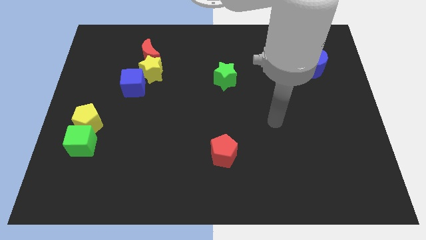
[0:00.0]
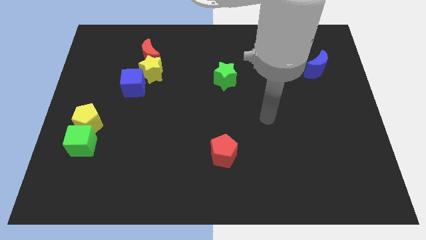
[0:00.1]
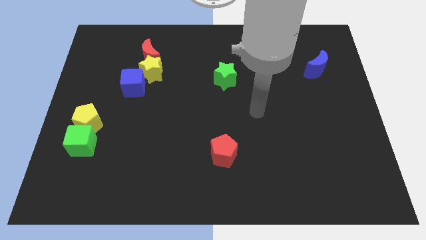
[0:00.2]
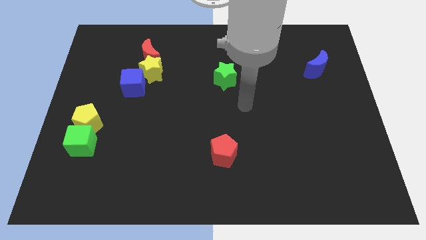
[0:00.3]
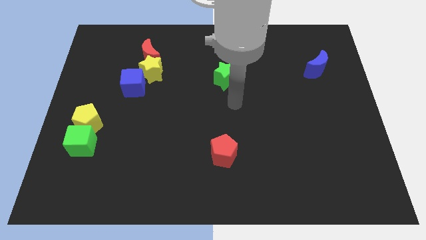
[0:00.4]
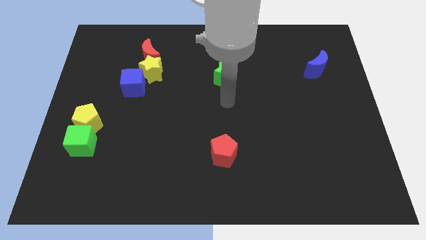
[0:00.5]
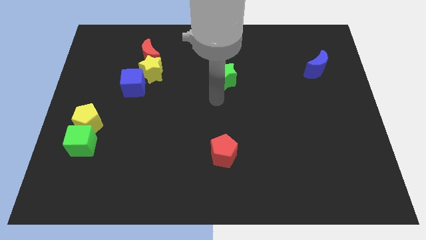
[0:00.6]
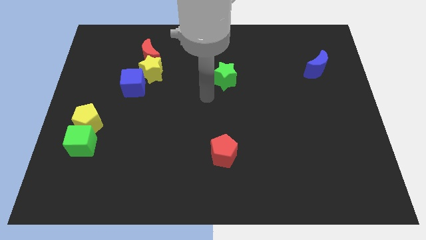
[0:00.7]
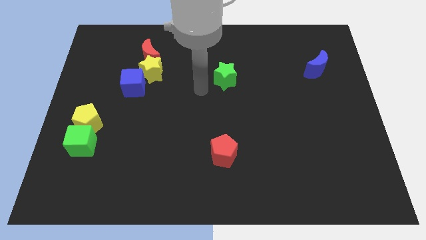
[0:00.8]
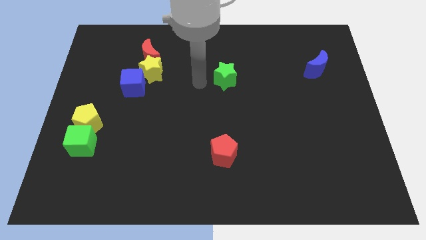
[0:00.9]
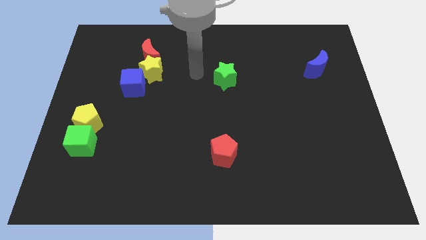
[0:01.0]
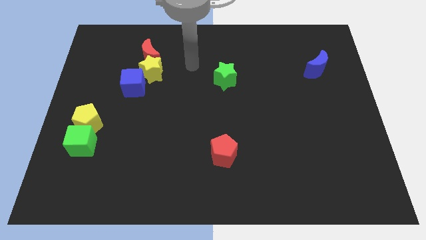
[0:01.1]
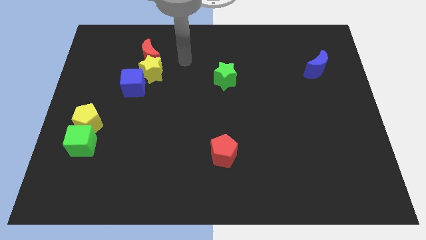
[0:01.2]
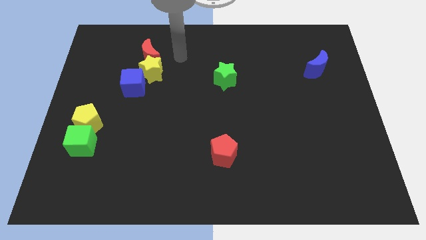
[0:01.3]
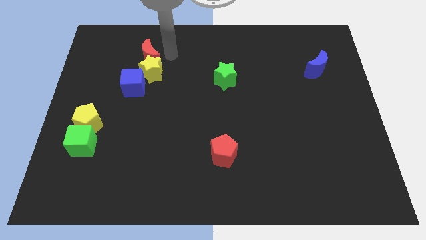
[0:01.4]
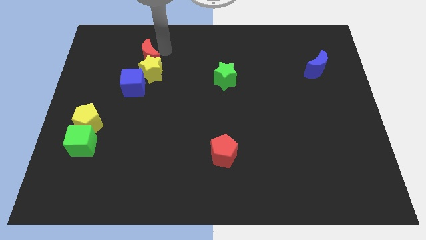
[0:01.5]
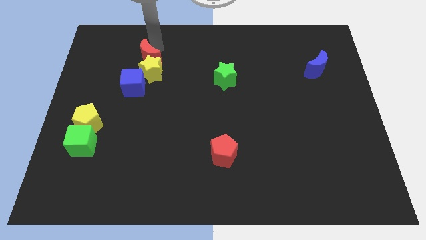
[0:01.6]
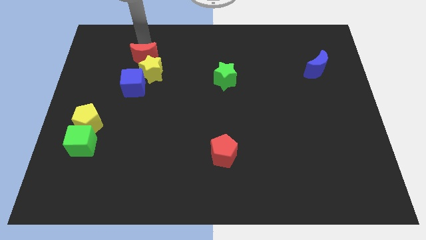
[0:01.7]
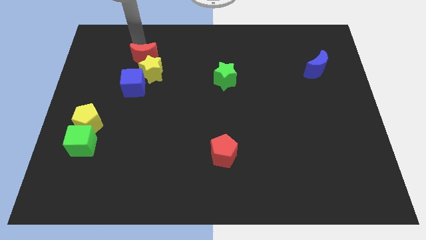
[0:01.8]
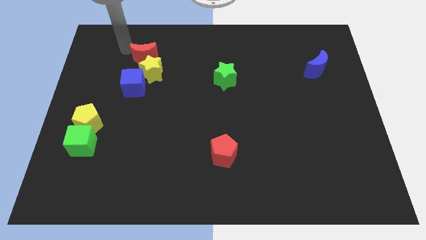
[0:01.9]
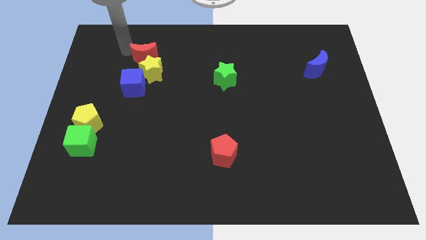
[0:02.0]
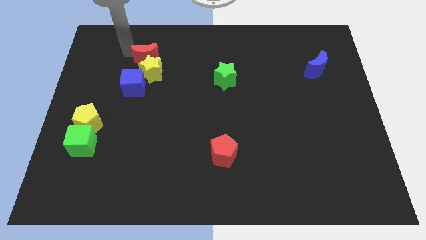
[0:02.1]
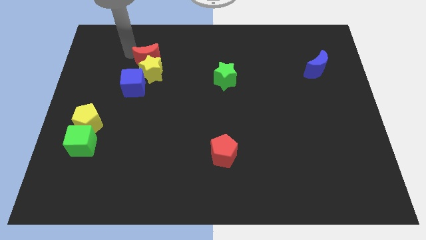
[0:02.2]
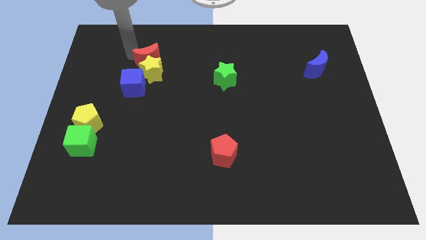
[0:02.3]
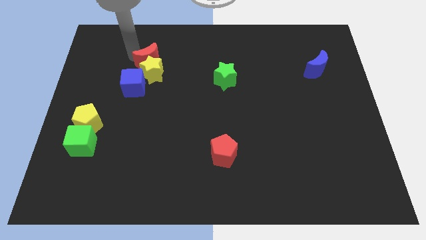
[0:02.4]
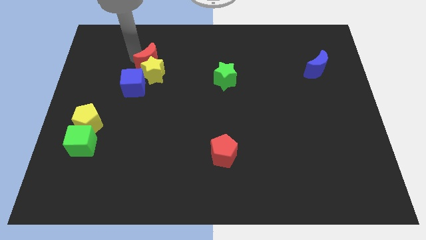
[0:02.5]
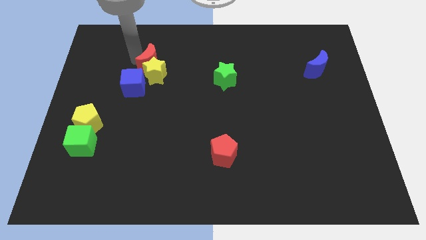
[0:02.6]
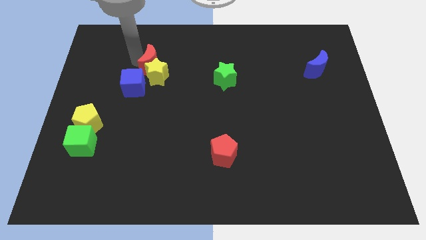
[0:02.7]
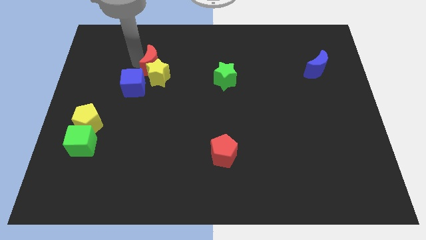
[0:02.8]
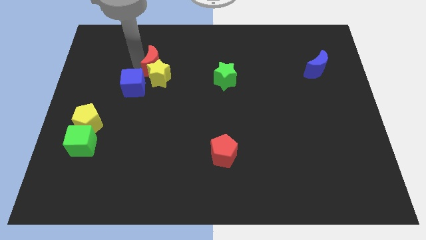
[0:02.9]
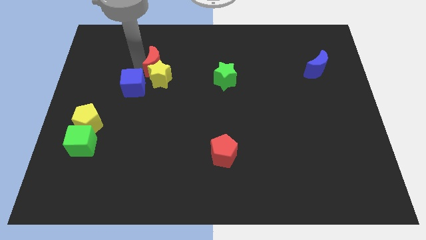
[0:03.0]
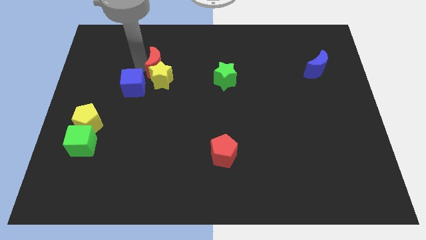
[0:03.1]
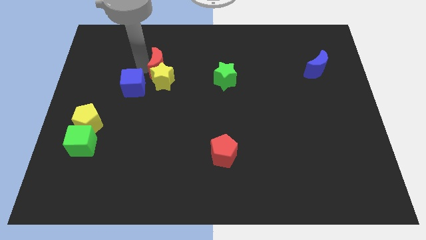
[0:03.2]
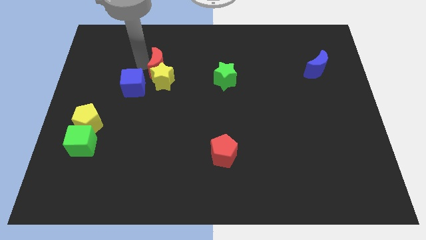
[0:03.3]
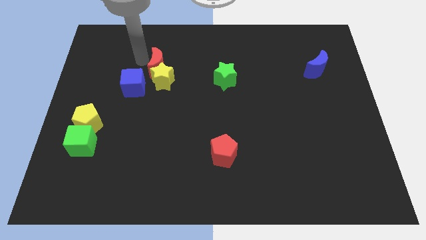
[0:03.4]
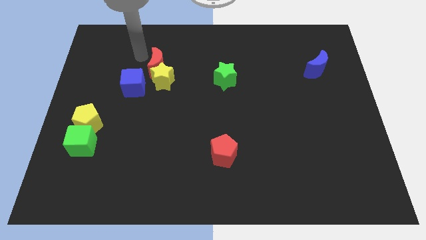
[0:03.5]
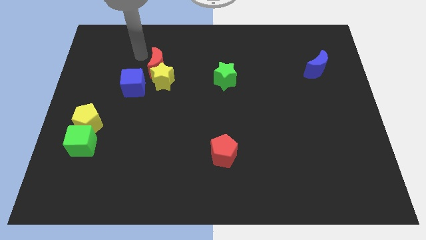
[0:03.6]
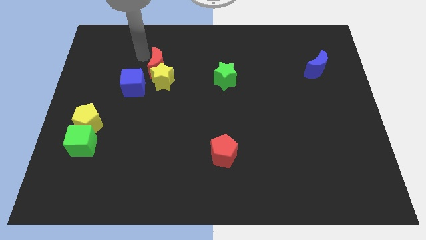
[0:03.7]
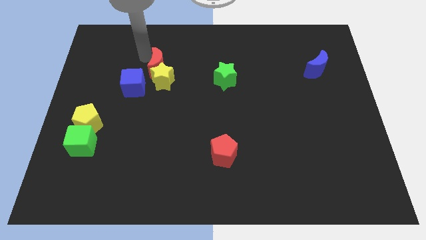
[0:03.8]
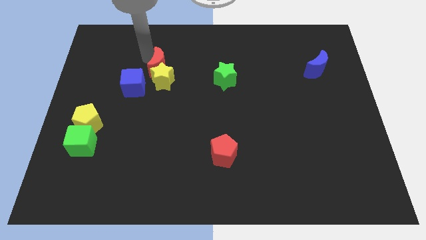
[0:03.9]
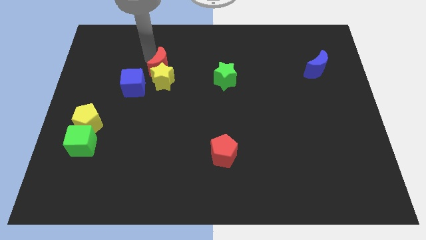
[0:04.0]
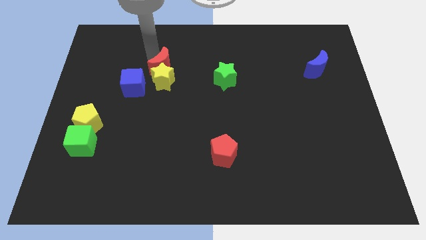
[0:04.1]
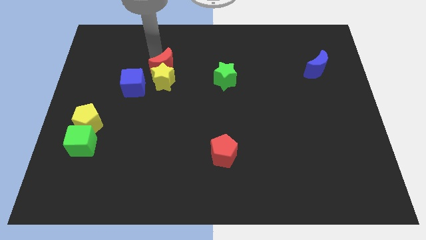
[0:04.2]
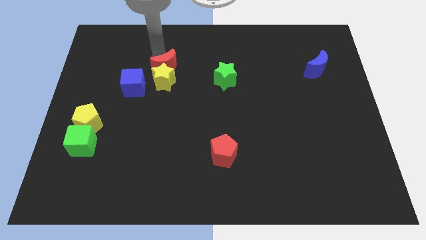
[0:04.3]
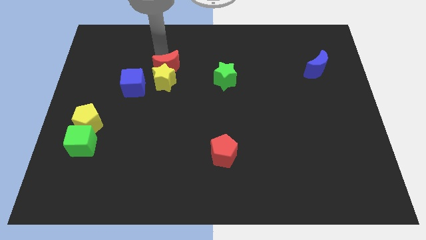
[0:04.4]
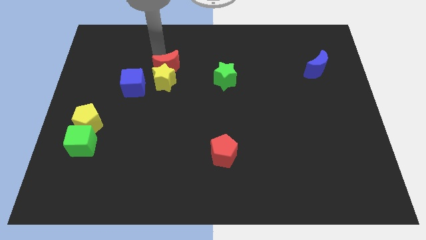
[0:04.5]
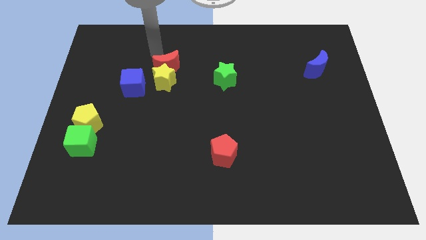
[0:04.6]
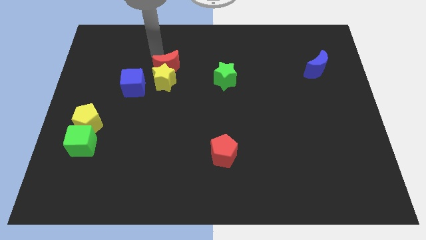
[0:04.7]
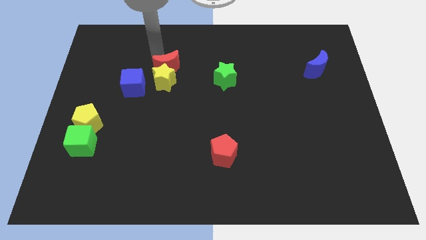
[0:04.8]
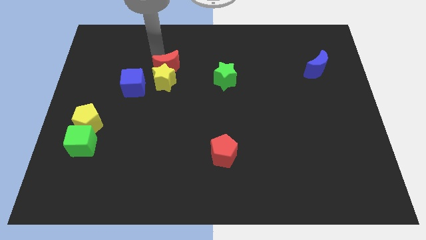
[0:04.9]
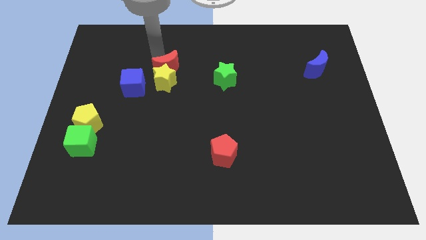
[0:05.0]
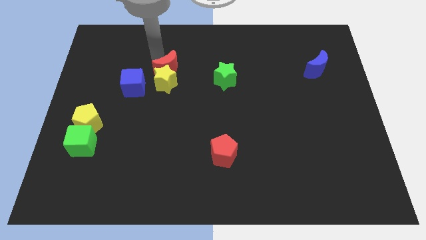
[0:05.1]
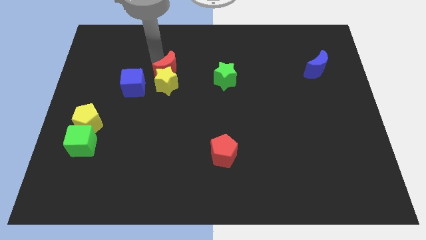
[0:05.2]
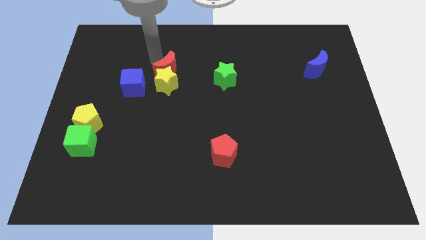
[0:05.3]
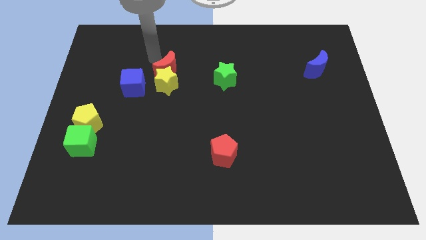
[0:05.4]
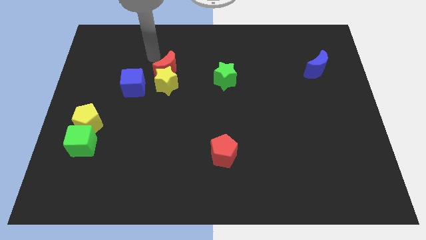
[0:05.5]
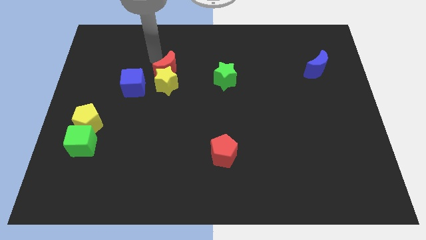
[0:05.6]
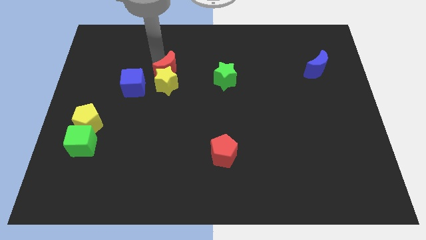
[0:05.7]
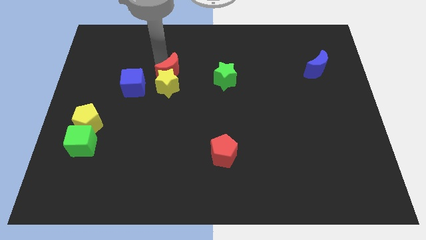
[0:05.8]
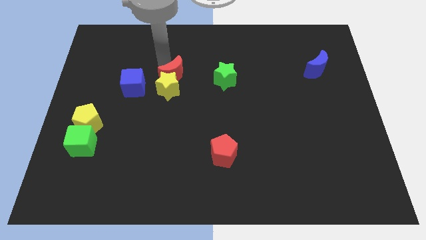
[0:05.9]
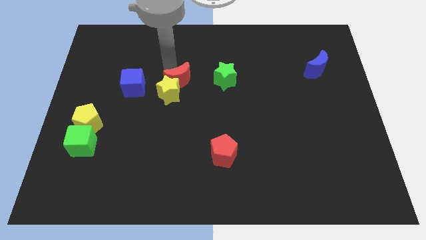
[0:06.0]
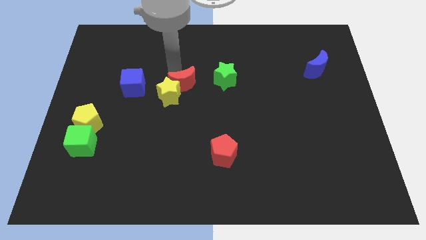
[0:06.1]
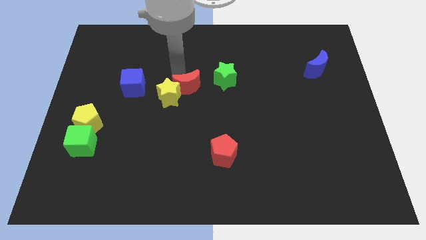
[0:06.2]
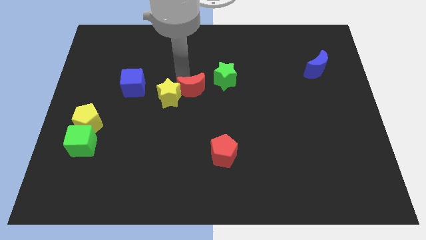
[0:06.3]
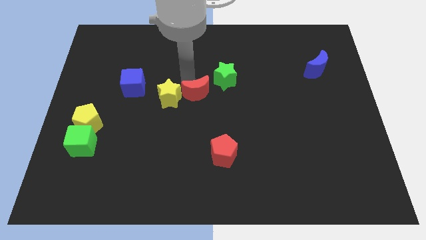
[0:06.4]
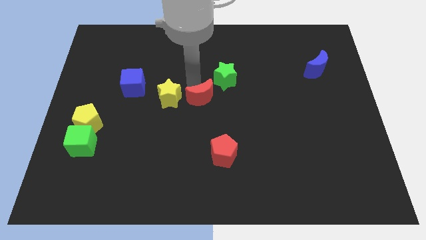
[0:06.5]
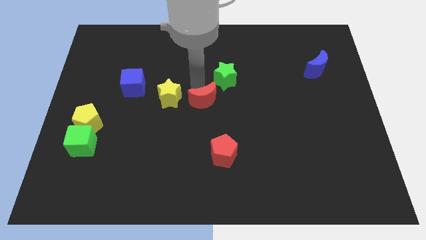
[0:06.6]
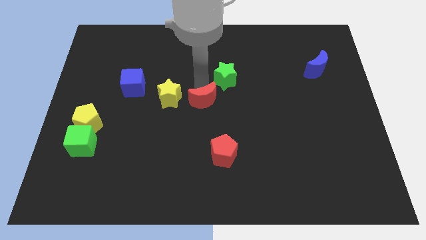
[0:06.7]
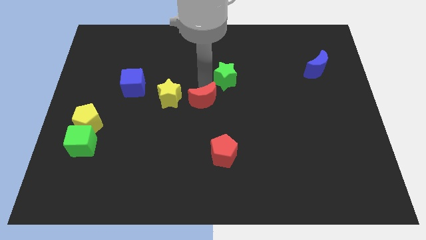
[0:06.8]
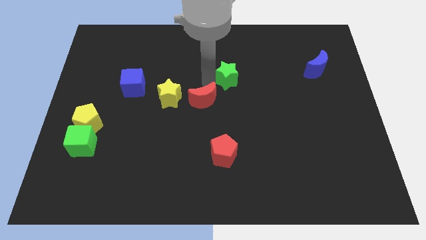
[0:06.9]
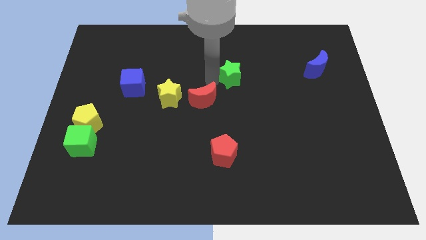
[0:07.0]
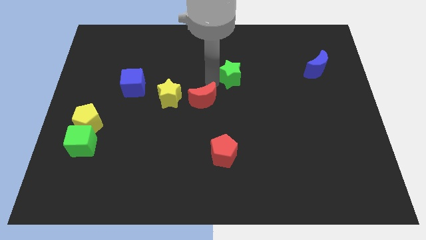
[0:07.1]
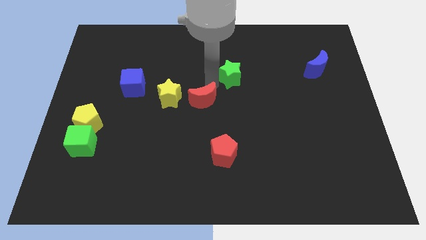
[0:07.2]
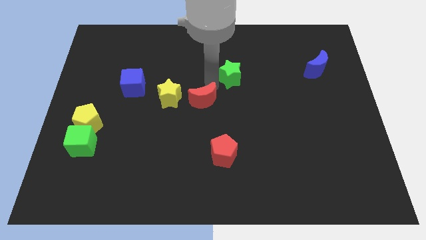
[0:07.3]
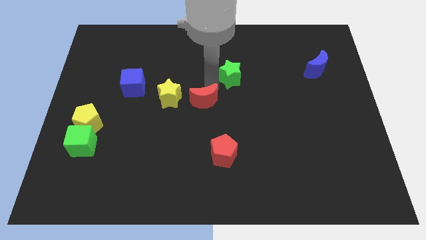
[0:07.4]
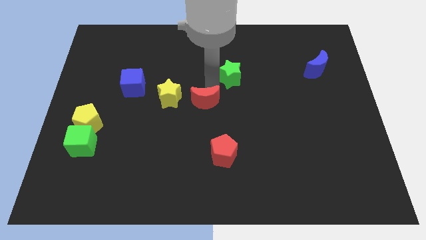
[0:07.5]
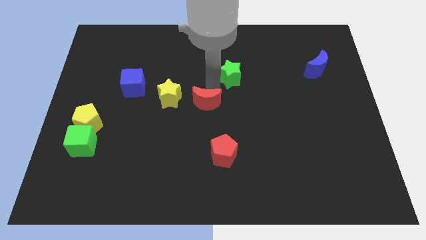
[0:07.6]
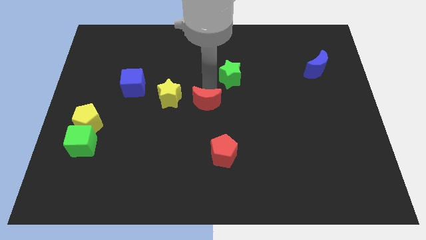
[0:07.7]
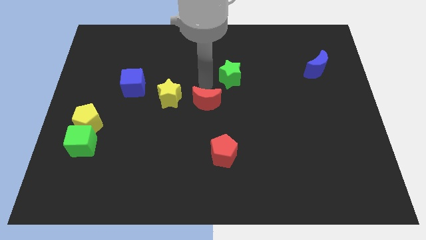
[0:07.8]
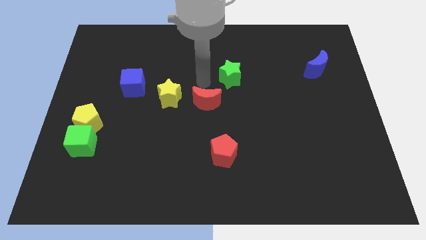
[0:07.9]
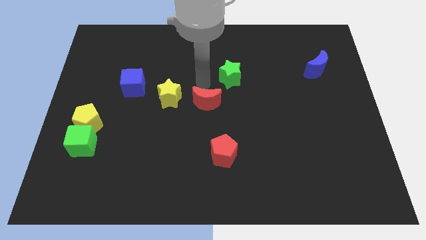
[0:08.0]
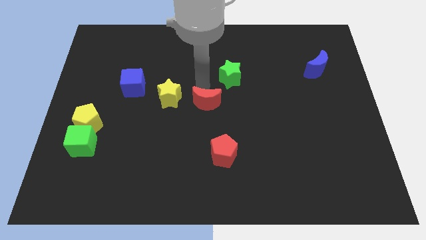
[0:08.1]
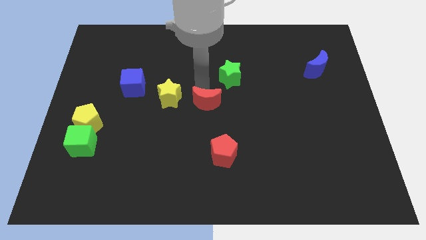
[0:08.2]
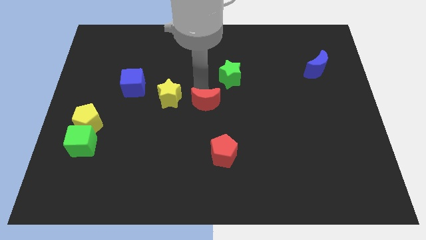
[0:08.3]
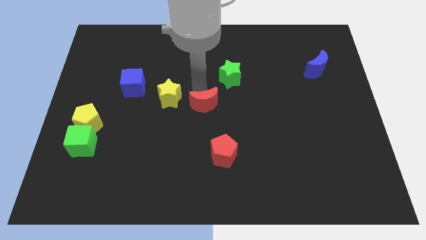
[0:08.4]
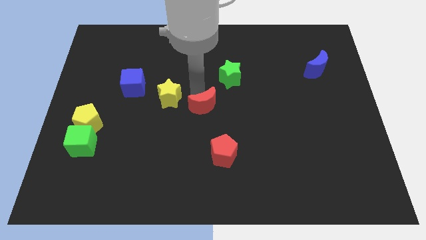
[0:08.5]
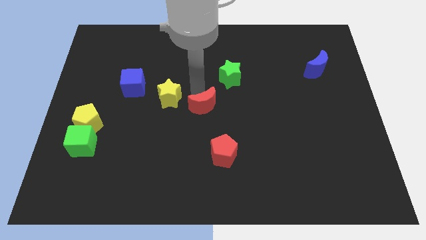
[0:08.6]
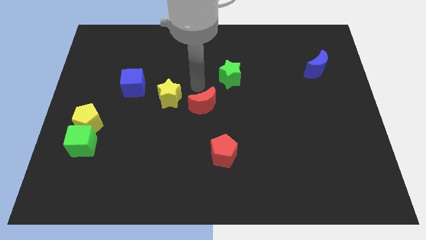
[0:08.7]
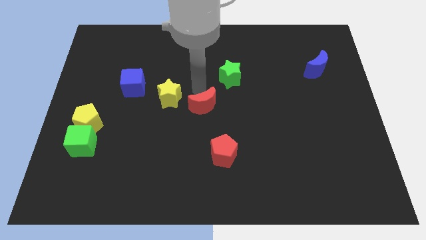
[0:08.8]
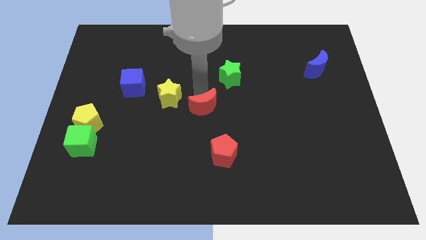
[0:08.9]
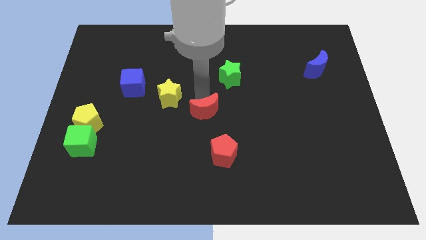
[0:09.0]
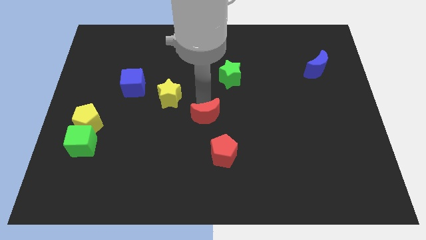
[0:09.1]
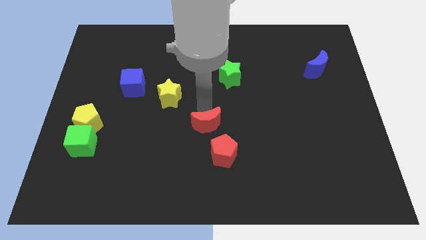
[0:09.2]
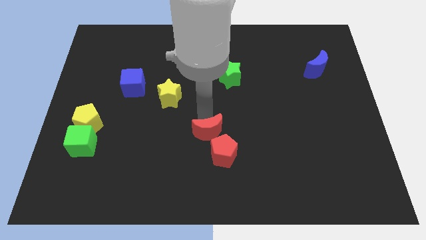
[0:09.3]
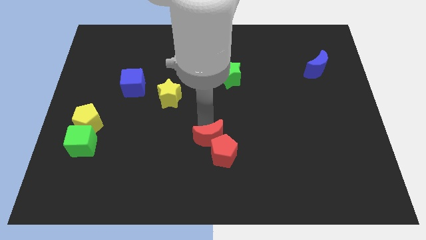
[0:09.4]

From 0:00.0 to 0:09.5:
move the red moon next to the red pentagon
